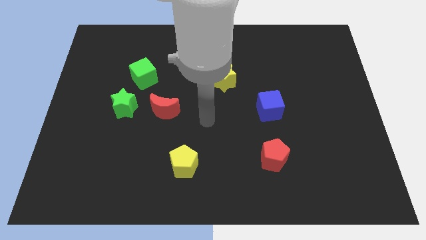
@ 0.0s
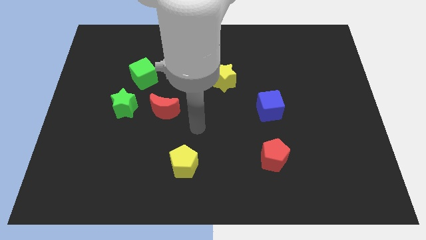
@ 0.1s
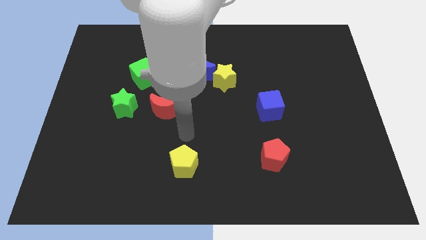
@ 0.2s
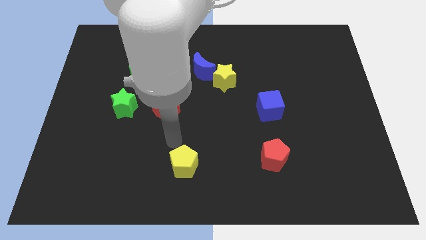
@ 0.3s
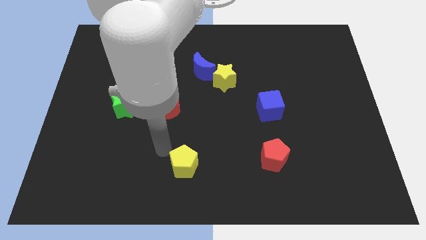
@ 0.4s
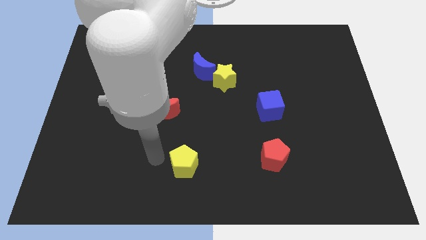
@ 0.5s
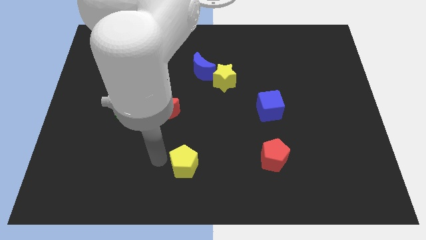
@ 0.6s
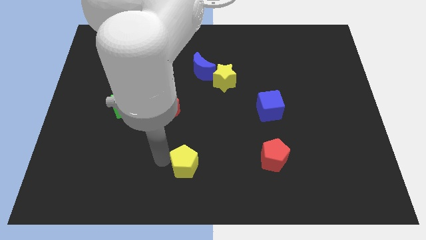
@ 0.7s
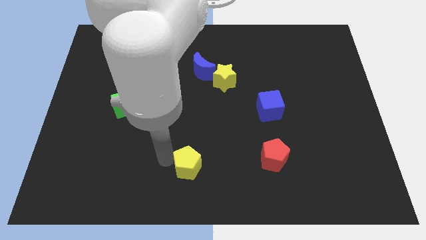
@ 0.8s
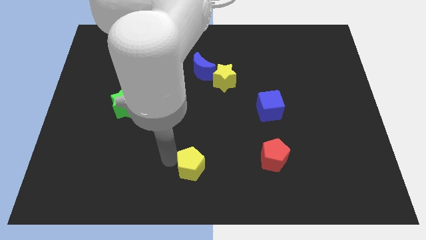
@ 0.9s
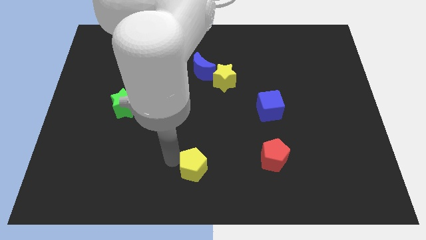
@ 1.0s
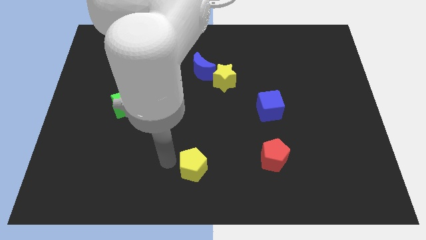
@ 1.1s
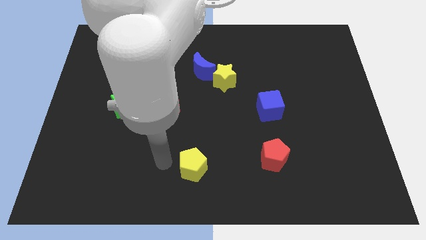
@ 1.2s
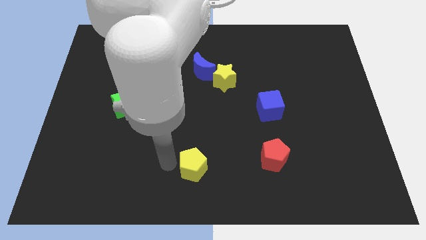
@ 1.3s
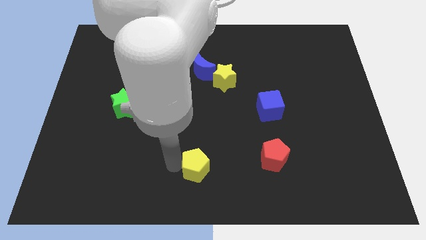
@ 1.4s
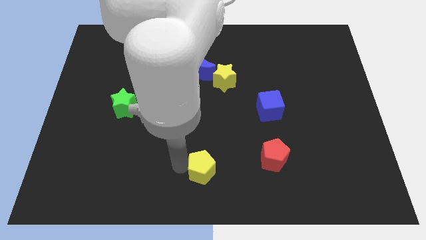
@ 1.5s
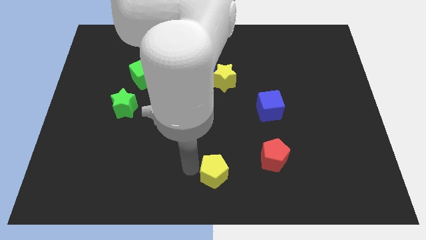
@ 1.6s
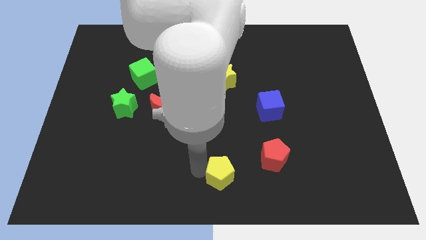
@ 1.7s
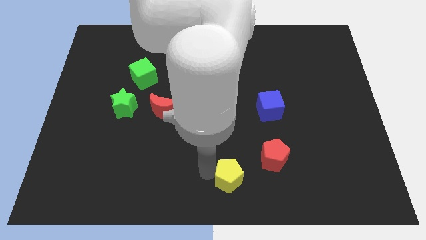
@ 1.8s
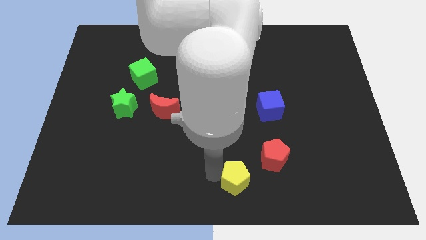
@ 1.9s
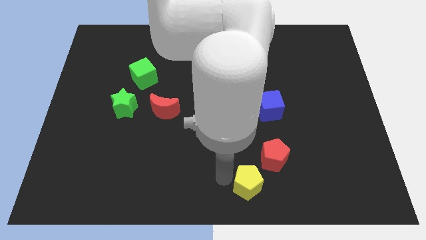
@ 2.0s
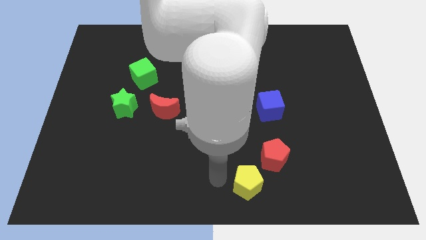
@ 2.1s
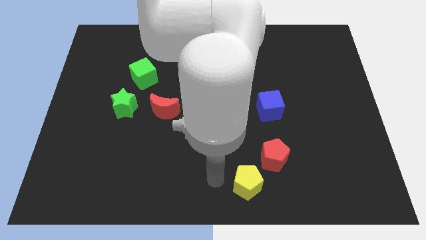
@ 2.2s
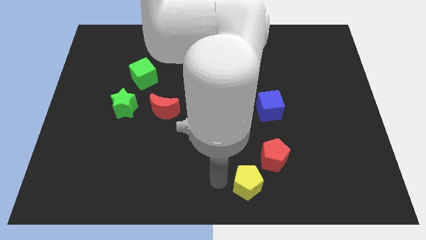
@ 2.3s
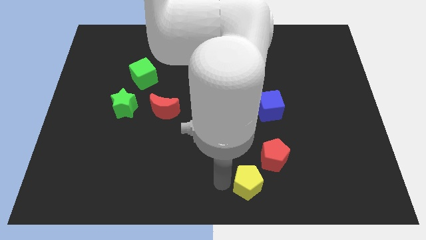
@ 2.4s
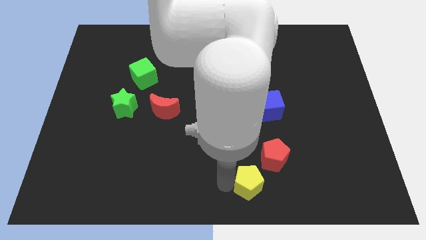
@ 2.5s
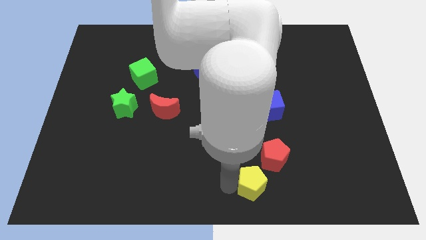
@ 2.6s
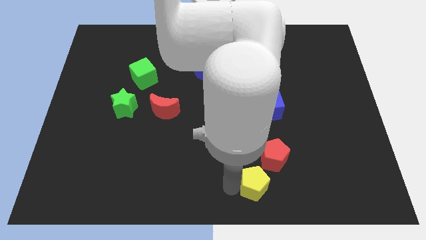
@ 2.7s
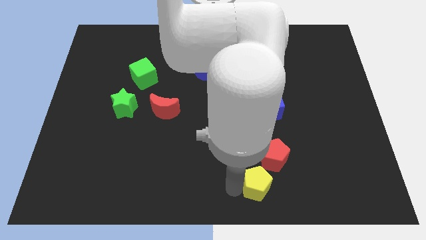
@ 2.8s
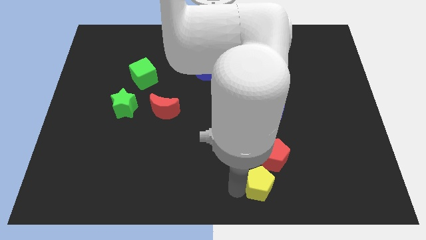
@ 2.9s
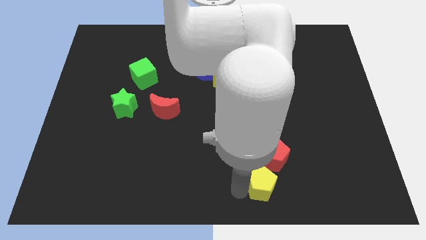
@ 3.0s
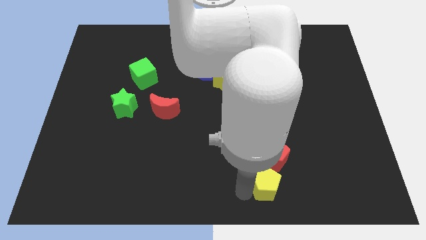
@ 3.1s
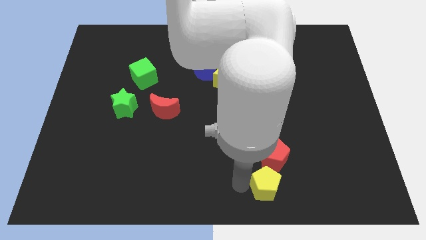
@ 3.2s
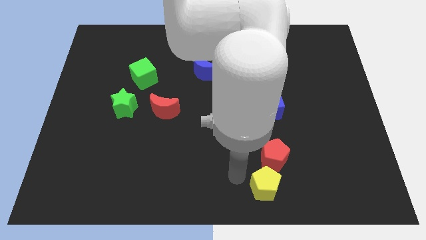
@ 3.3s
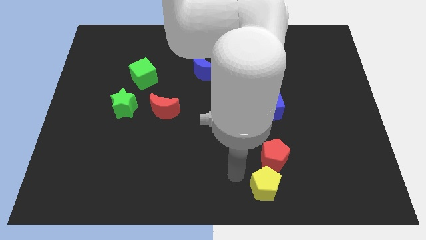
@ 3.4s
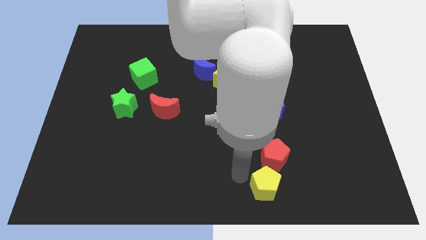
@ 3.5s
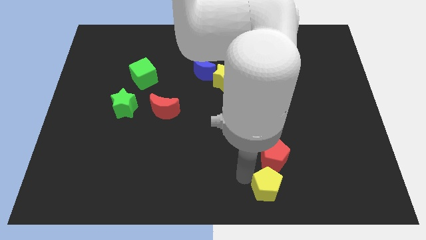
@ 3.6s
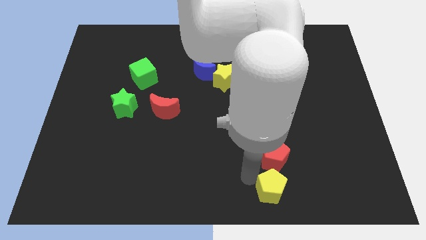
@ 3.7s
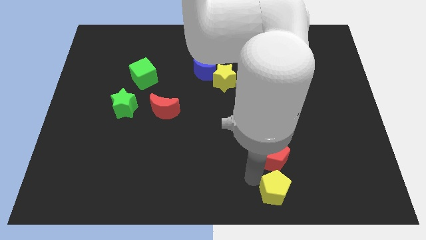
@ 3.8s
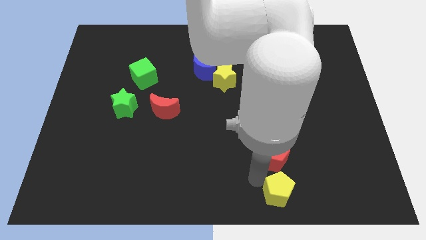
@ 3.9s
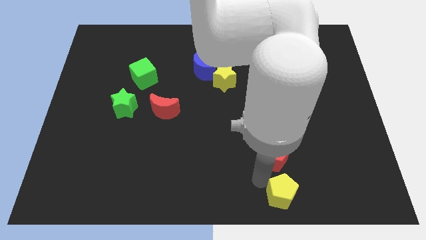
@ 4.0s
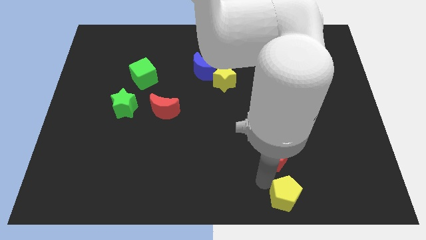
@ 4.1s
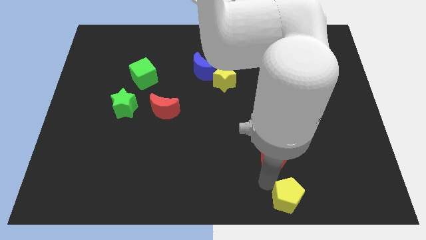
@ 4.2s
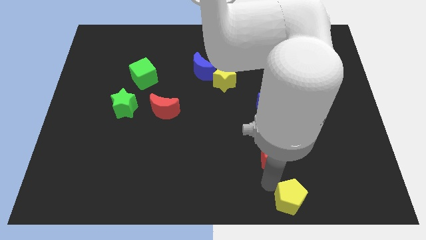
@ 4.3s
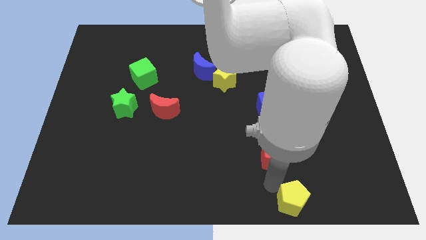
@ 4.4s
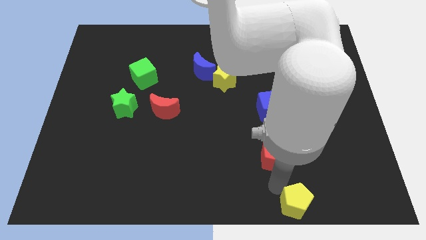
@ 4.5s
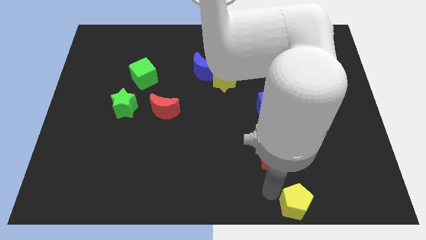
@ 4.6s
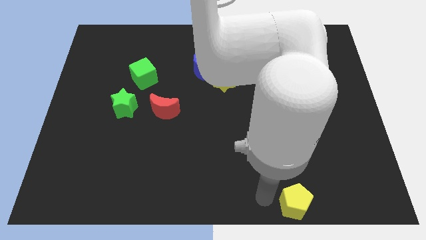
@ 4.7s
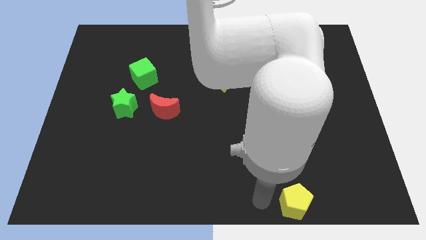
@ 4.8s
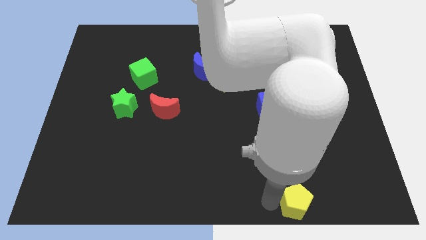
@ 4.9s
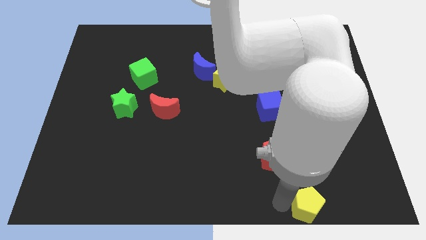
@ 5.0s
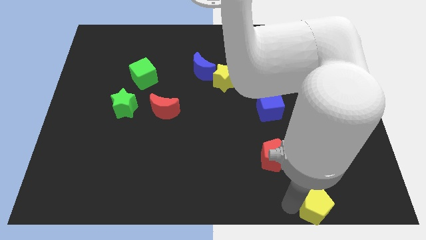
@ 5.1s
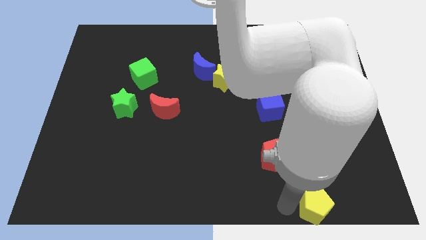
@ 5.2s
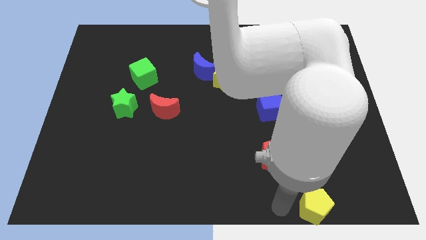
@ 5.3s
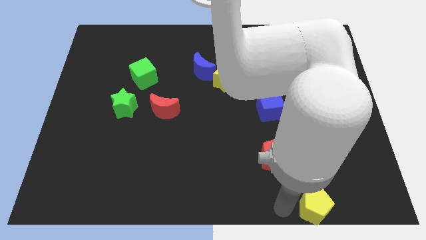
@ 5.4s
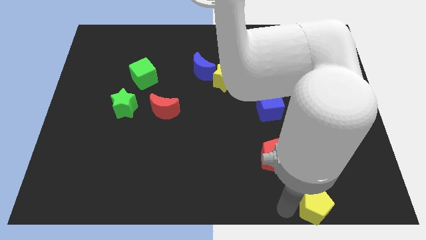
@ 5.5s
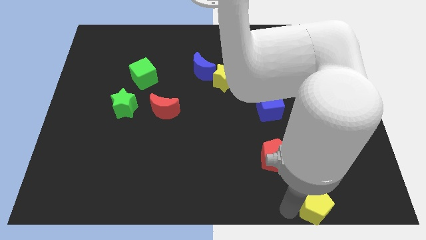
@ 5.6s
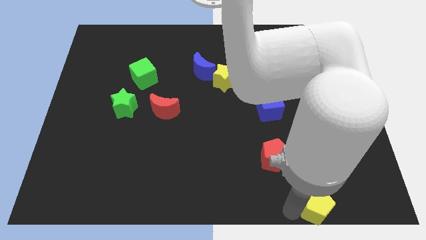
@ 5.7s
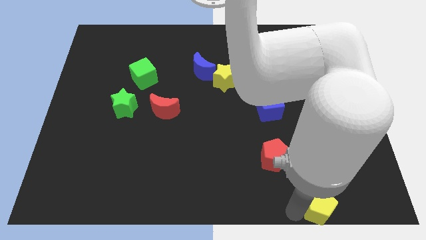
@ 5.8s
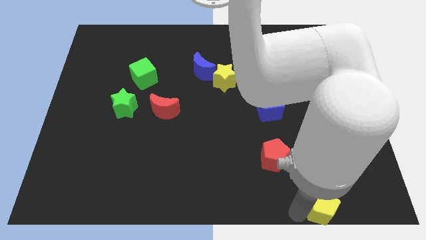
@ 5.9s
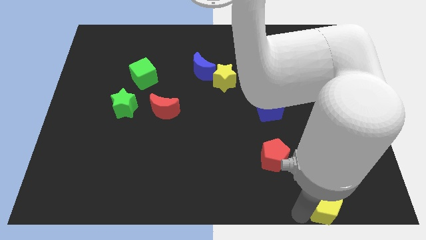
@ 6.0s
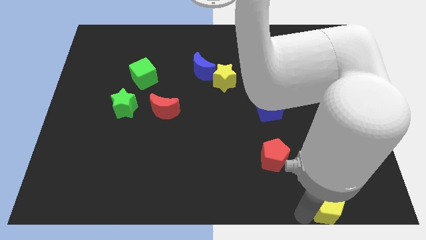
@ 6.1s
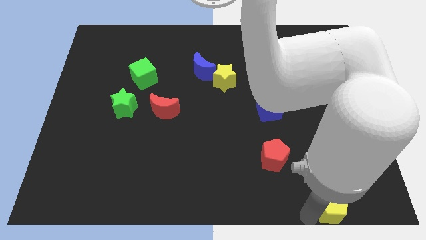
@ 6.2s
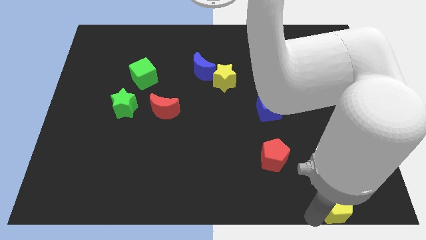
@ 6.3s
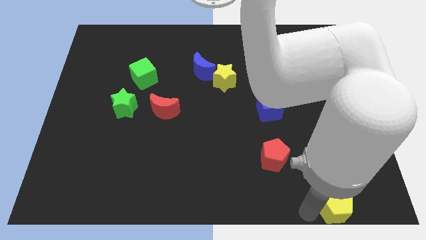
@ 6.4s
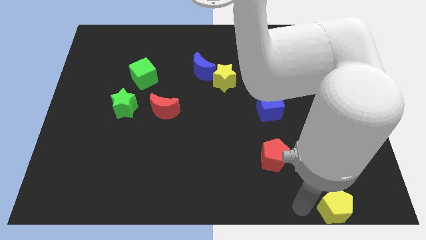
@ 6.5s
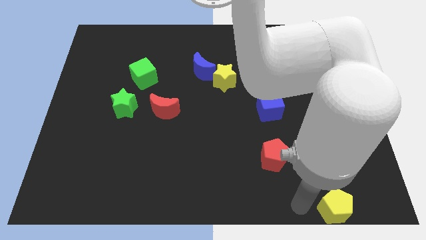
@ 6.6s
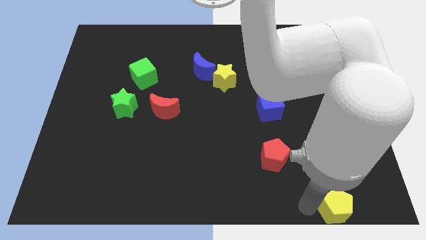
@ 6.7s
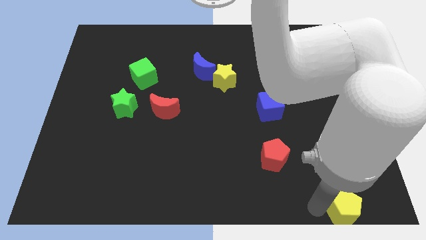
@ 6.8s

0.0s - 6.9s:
put the yellow pentagon to the bottom right of the board
